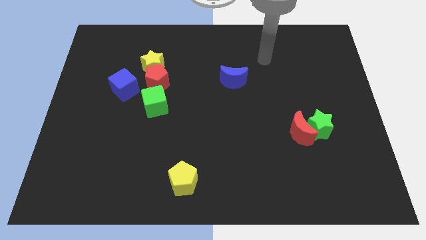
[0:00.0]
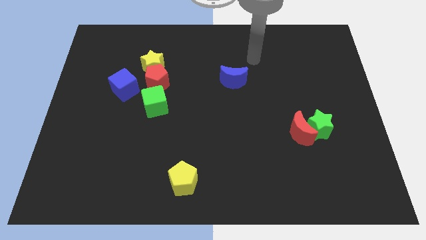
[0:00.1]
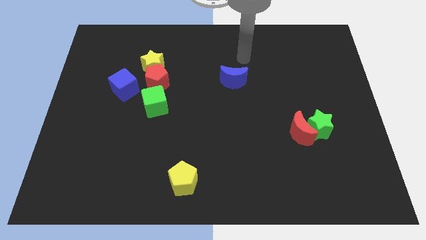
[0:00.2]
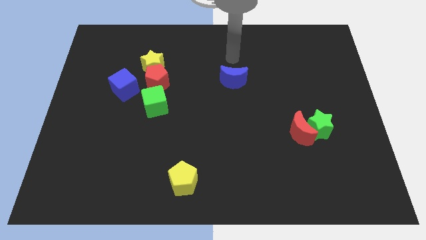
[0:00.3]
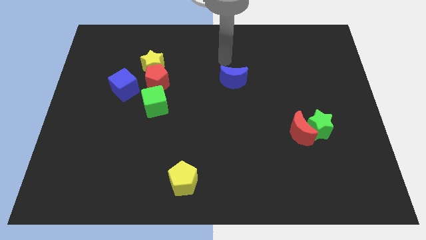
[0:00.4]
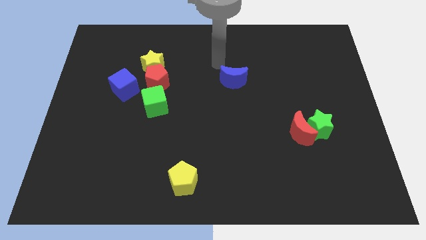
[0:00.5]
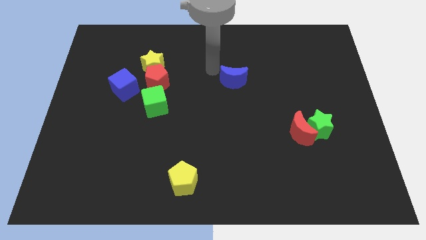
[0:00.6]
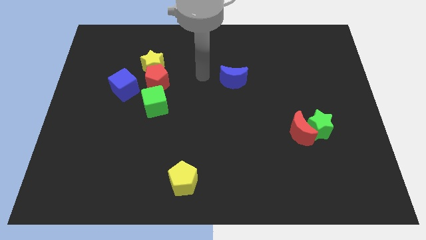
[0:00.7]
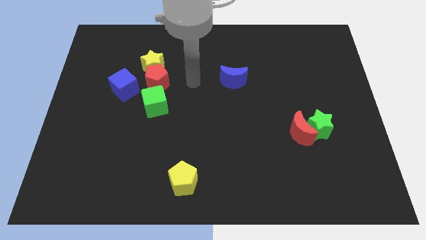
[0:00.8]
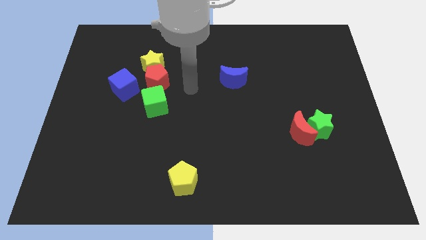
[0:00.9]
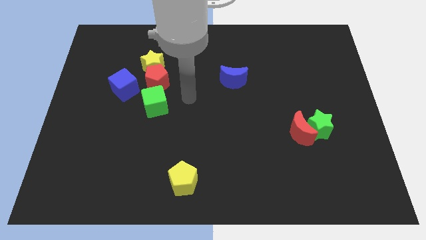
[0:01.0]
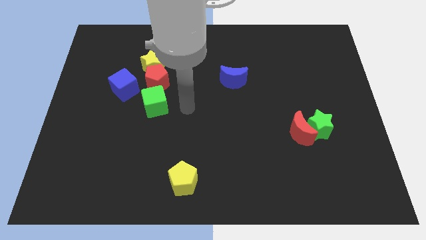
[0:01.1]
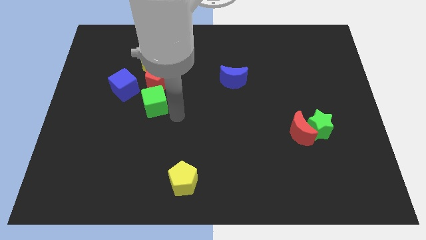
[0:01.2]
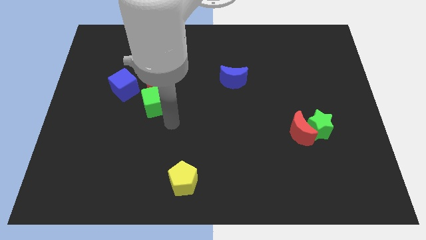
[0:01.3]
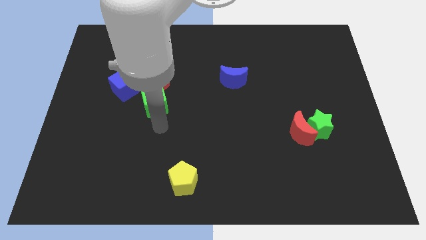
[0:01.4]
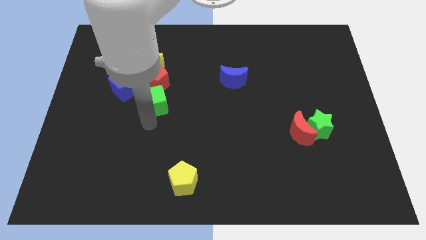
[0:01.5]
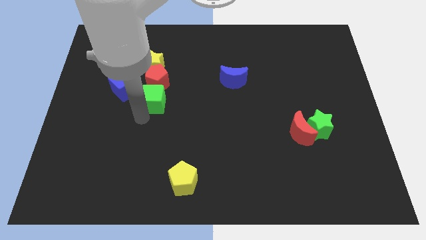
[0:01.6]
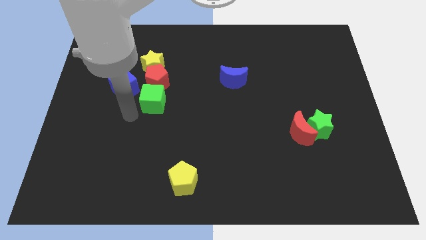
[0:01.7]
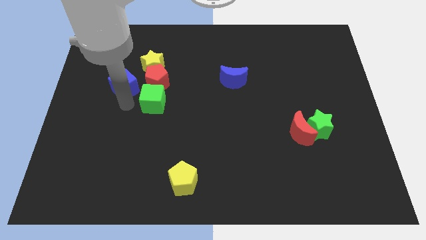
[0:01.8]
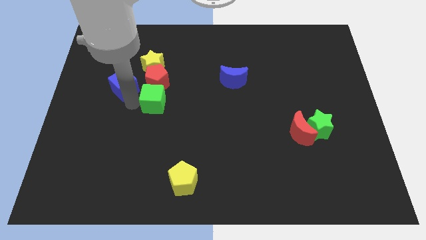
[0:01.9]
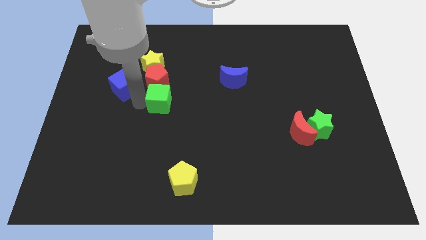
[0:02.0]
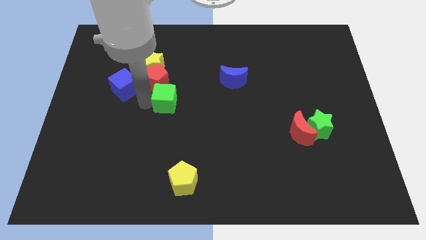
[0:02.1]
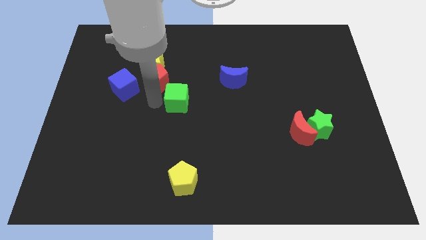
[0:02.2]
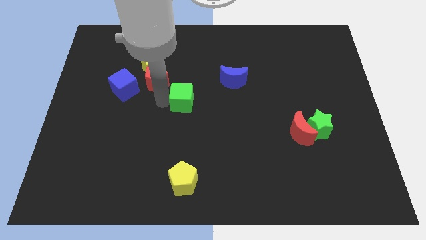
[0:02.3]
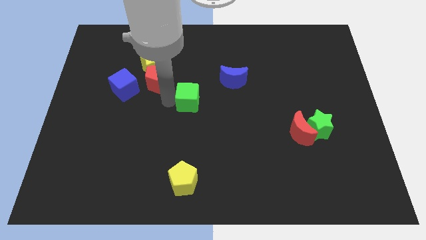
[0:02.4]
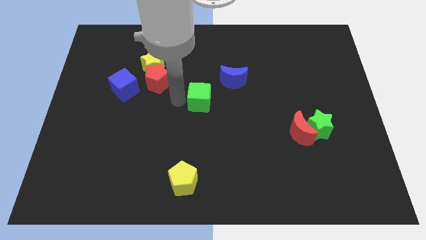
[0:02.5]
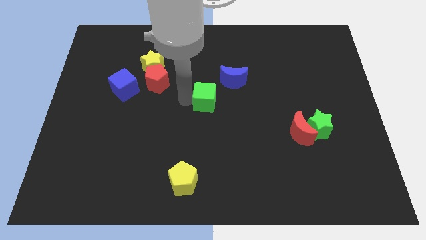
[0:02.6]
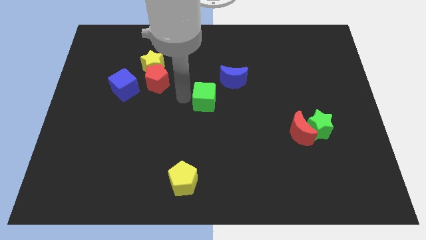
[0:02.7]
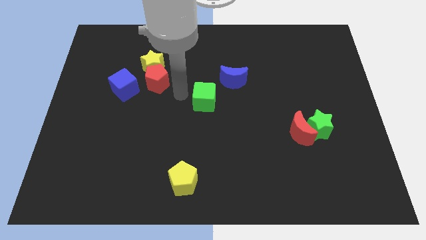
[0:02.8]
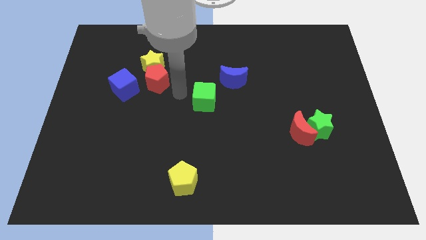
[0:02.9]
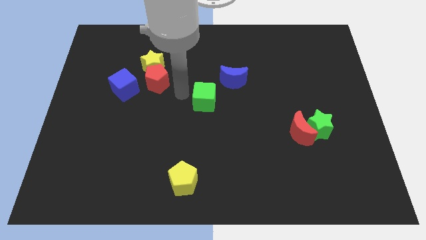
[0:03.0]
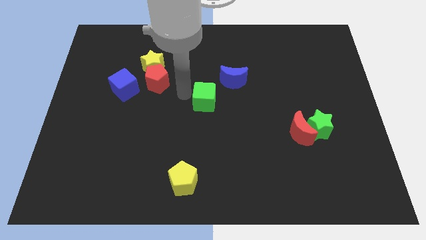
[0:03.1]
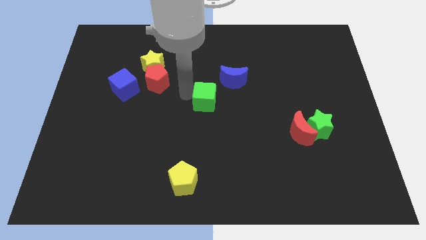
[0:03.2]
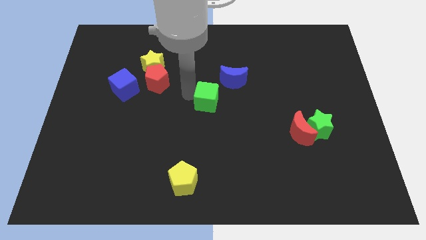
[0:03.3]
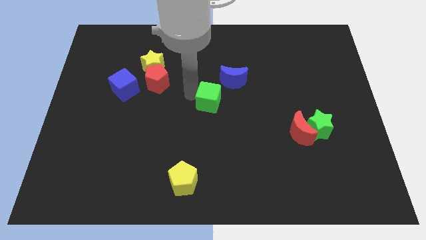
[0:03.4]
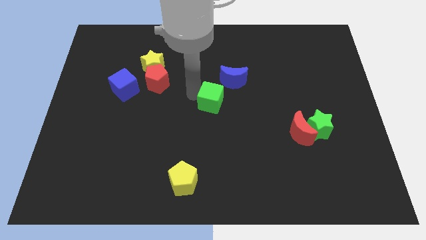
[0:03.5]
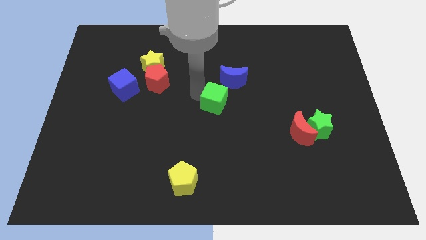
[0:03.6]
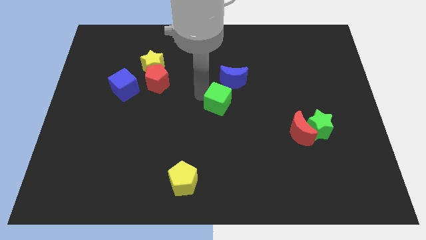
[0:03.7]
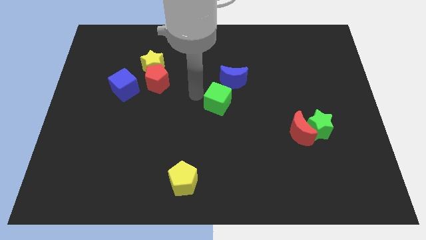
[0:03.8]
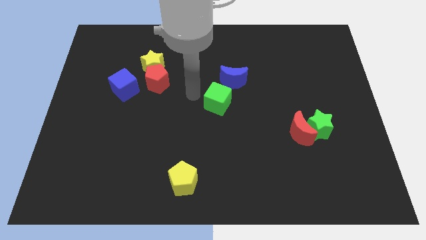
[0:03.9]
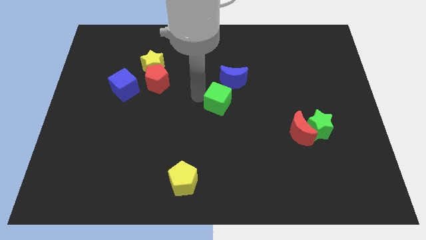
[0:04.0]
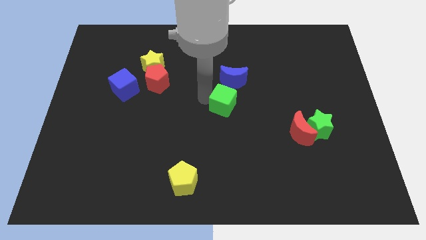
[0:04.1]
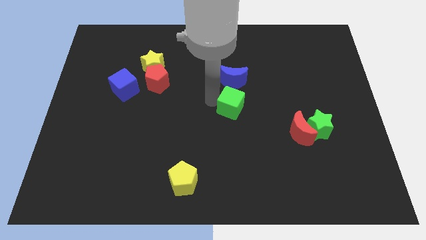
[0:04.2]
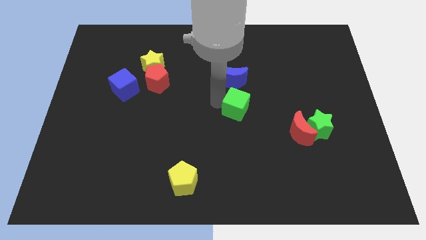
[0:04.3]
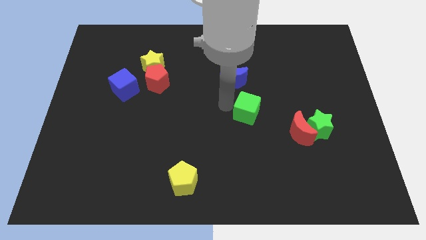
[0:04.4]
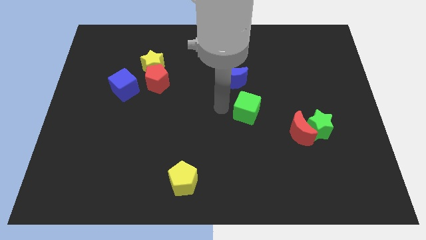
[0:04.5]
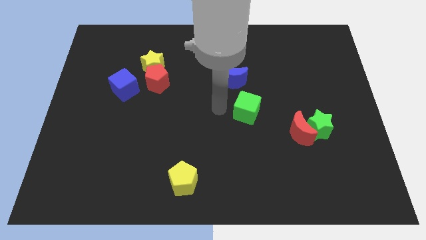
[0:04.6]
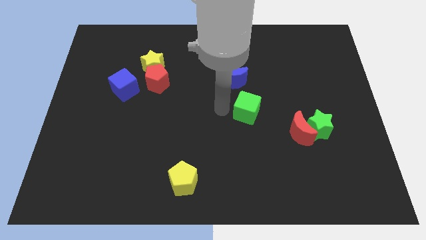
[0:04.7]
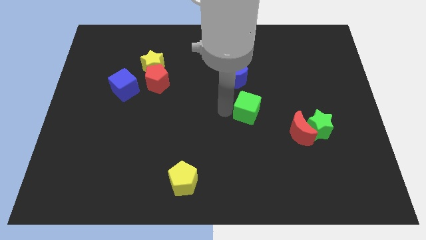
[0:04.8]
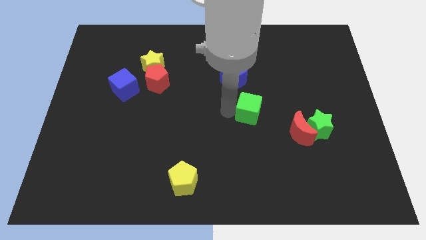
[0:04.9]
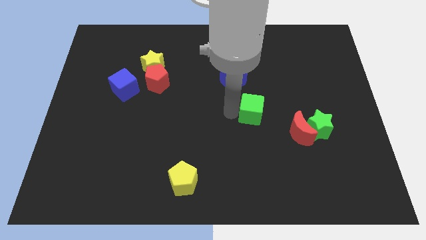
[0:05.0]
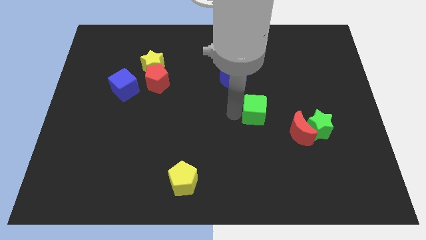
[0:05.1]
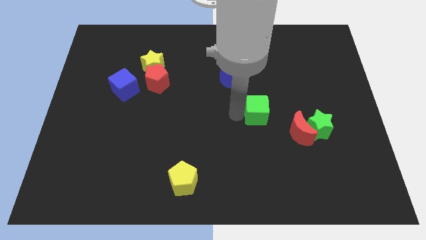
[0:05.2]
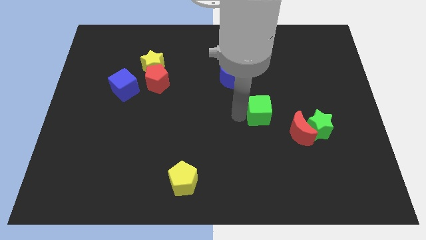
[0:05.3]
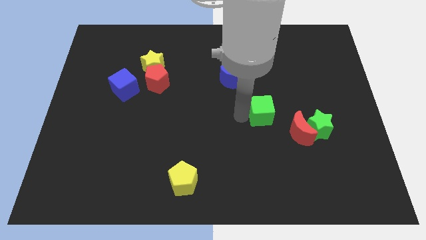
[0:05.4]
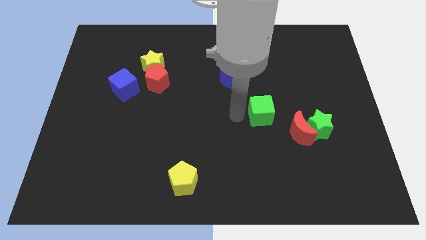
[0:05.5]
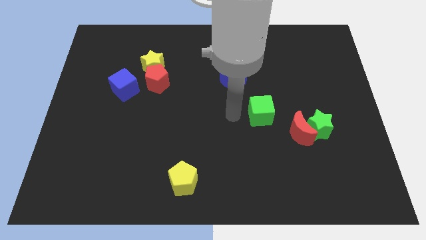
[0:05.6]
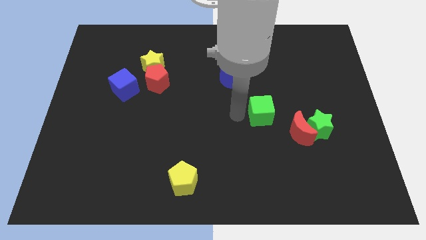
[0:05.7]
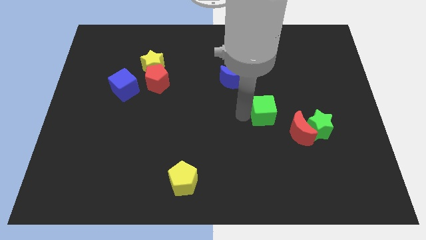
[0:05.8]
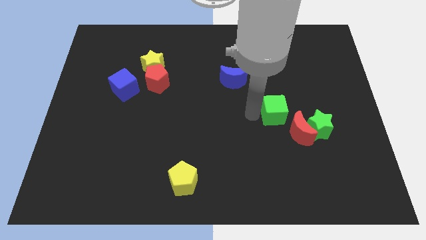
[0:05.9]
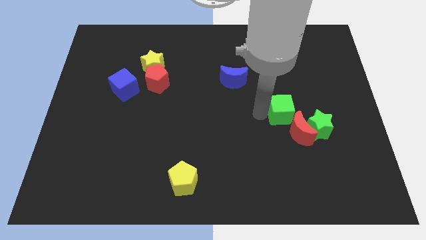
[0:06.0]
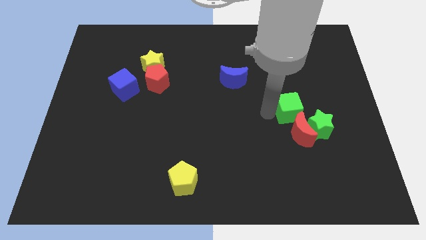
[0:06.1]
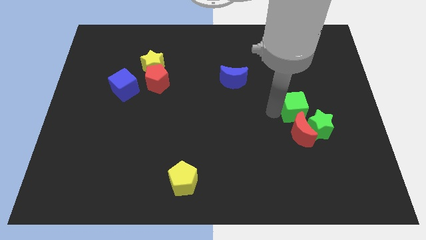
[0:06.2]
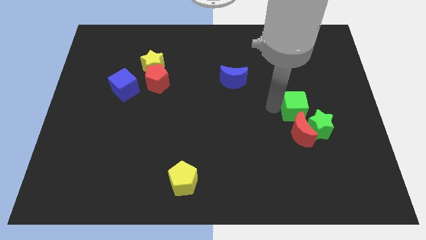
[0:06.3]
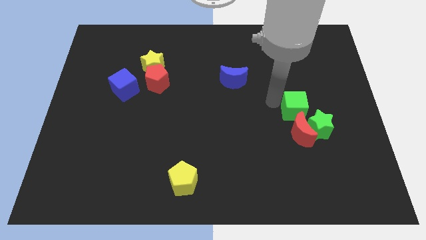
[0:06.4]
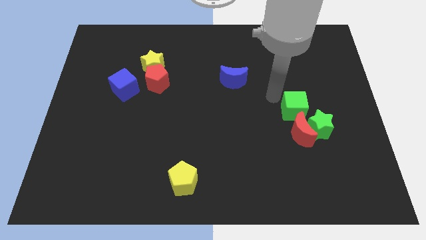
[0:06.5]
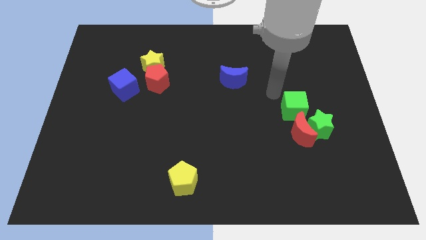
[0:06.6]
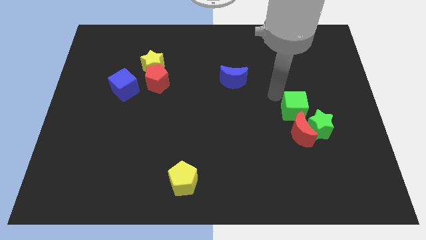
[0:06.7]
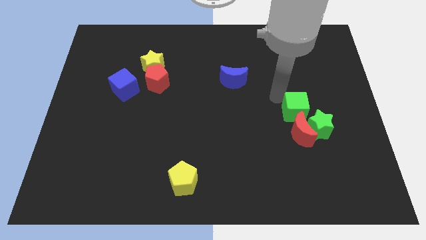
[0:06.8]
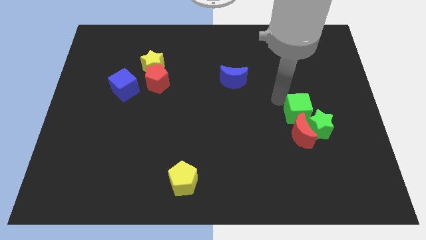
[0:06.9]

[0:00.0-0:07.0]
put the green cube close to the green star

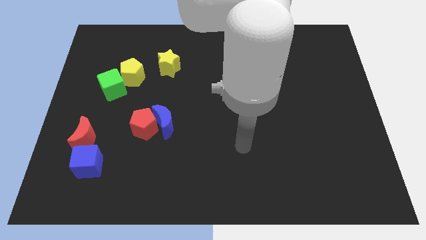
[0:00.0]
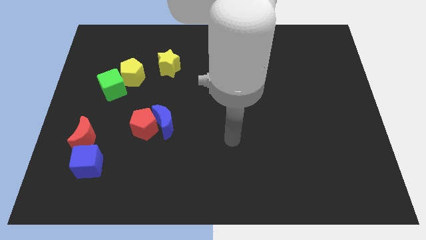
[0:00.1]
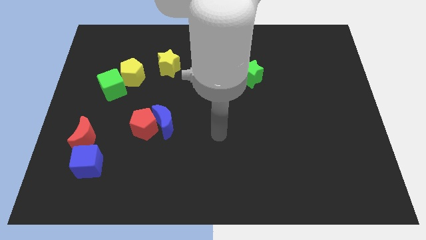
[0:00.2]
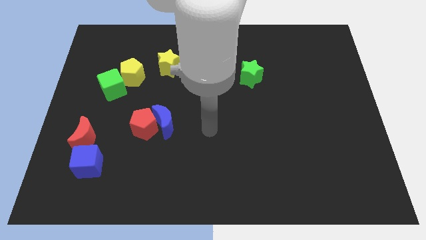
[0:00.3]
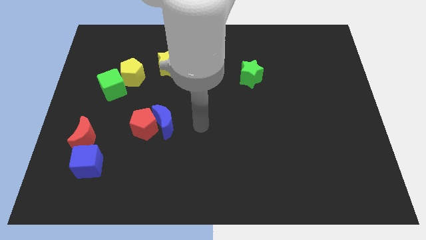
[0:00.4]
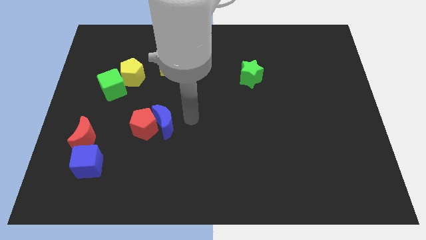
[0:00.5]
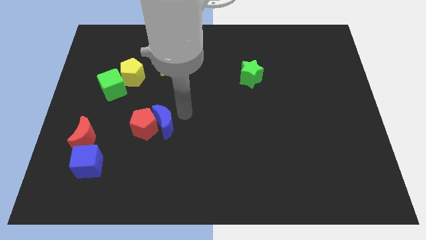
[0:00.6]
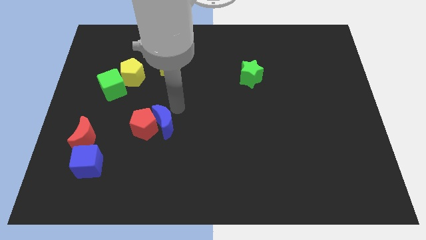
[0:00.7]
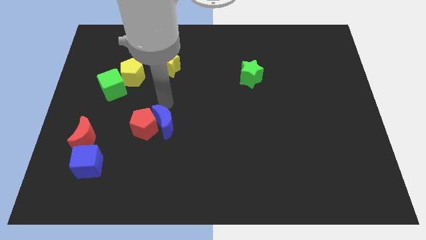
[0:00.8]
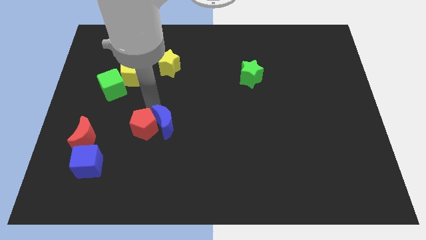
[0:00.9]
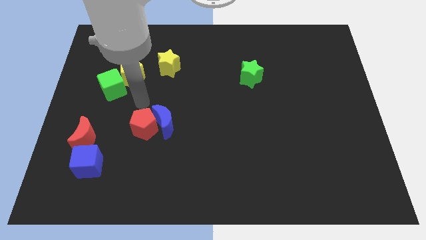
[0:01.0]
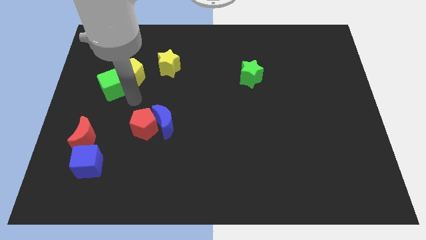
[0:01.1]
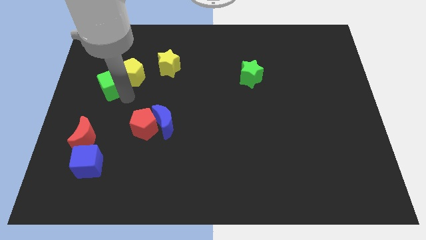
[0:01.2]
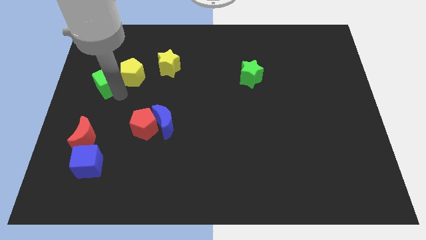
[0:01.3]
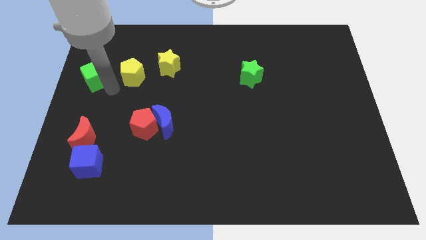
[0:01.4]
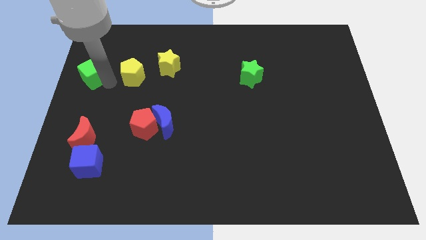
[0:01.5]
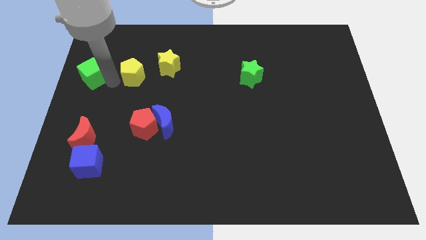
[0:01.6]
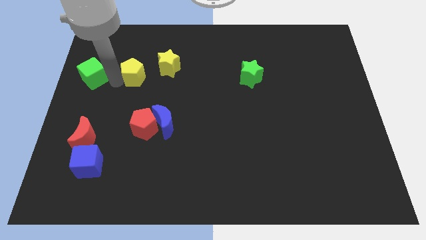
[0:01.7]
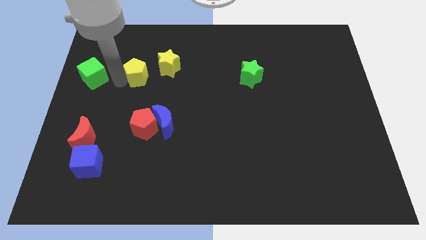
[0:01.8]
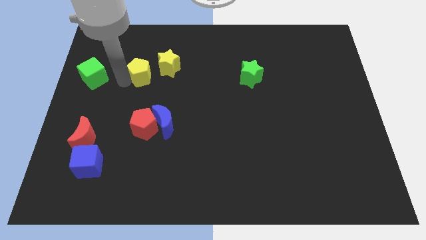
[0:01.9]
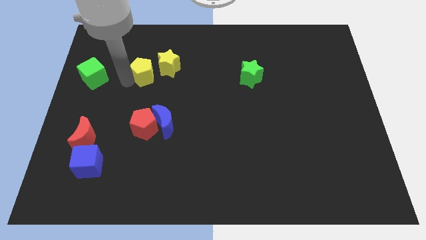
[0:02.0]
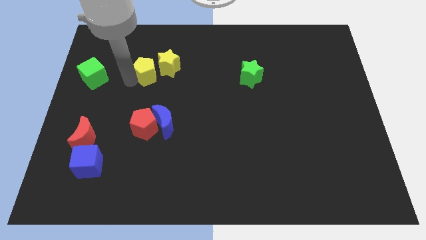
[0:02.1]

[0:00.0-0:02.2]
push the yellow pentagon to the yellow star
